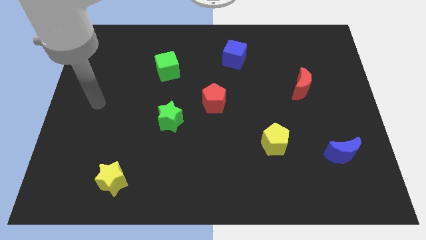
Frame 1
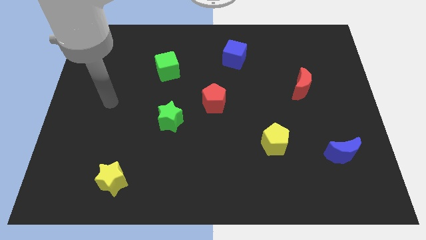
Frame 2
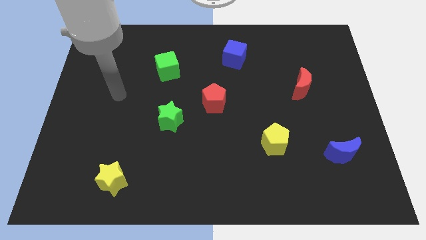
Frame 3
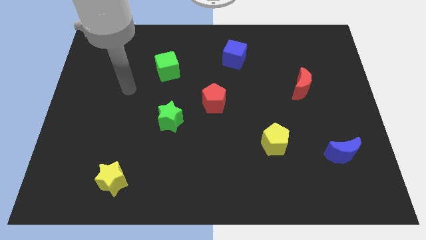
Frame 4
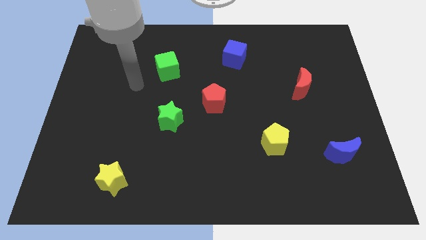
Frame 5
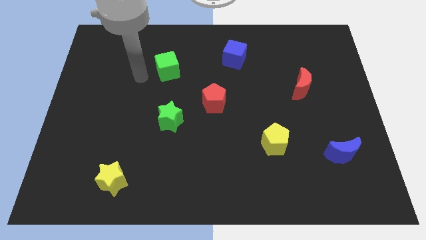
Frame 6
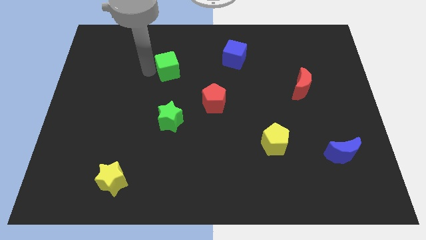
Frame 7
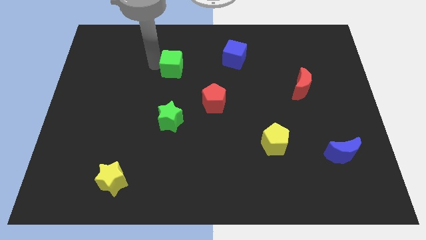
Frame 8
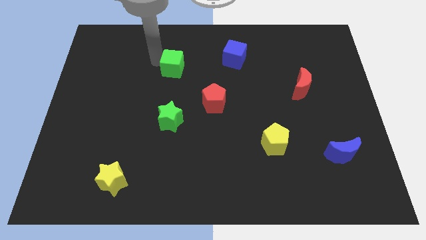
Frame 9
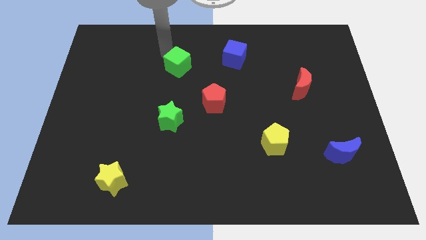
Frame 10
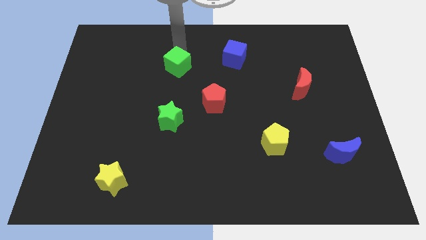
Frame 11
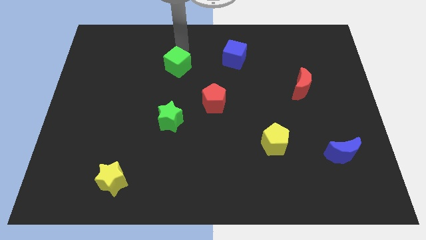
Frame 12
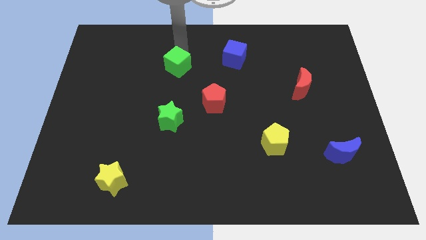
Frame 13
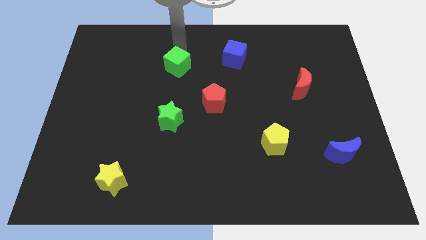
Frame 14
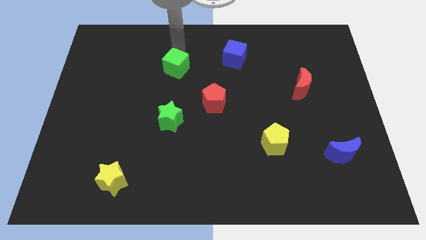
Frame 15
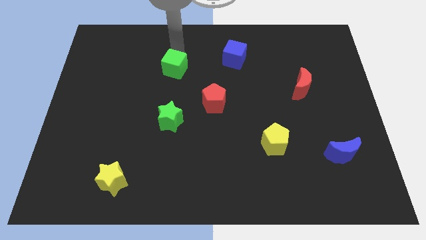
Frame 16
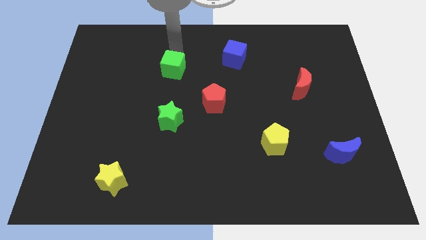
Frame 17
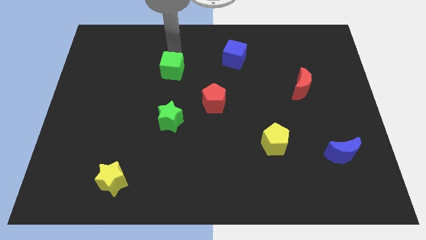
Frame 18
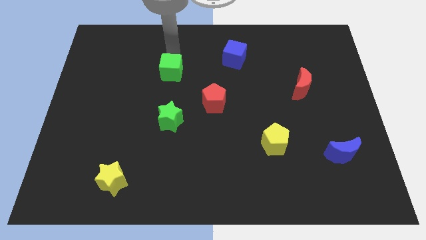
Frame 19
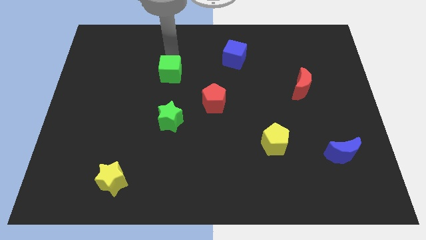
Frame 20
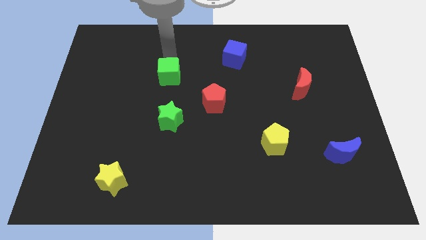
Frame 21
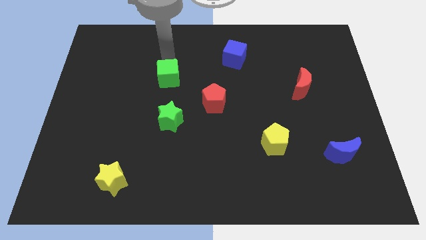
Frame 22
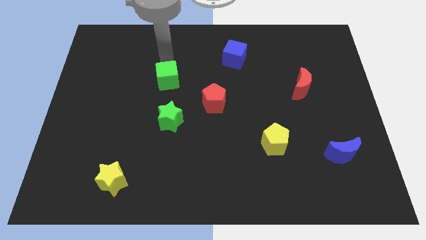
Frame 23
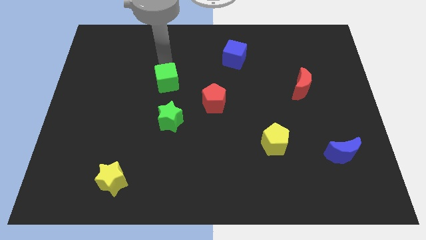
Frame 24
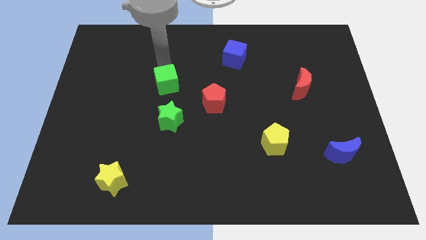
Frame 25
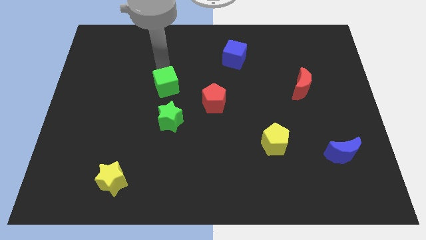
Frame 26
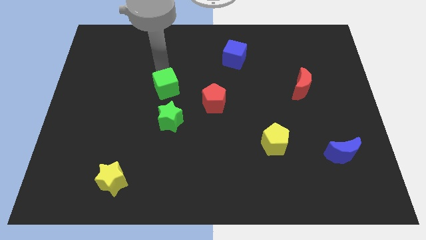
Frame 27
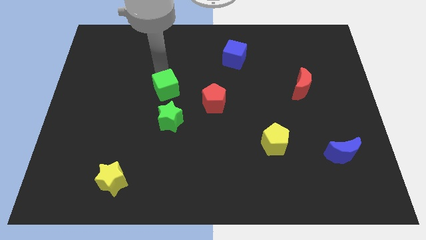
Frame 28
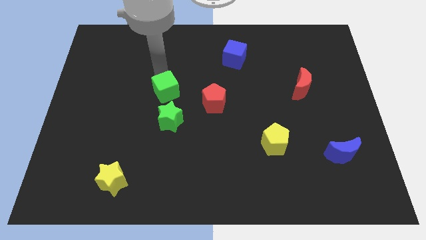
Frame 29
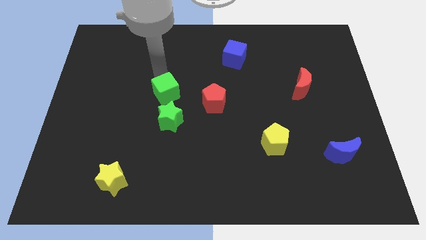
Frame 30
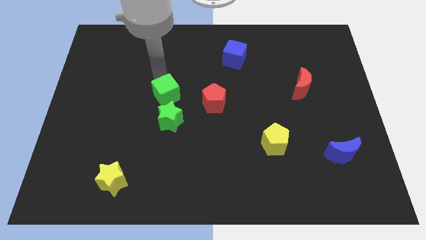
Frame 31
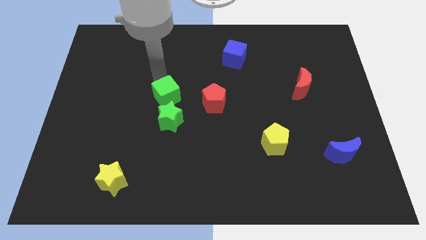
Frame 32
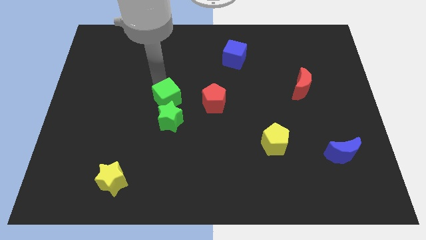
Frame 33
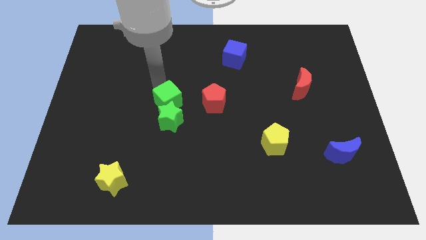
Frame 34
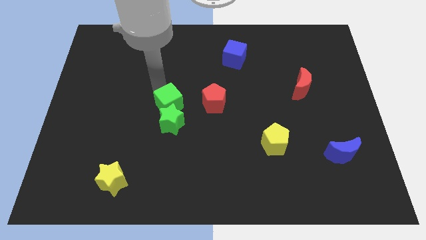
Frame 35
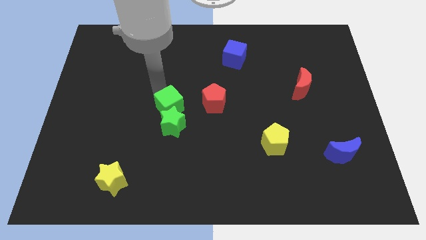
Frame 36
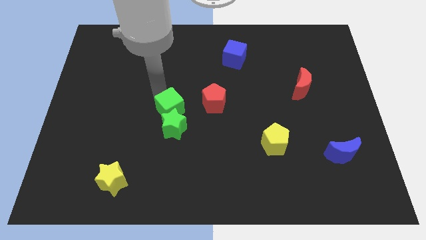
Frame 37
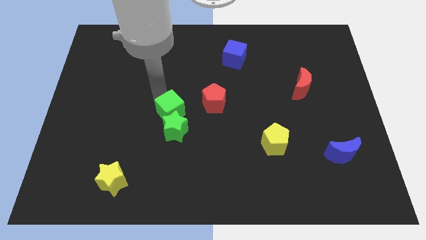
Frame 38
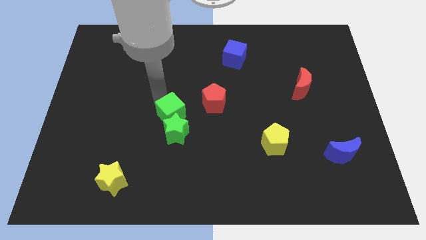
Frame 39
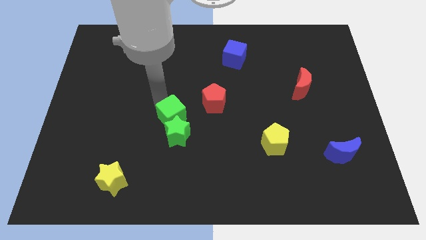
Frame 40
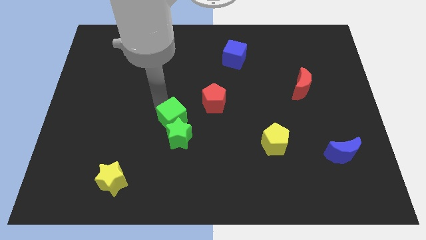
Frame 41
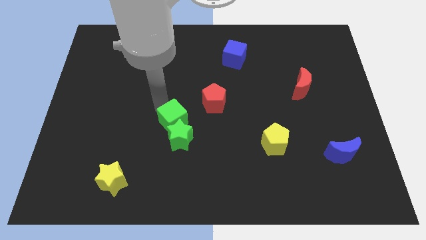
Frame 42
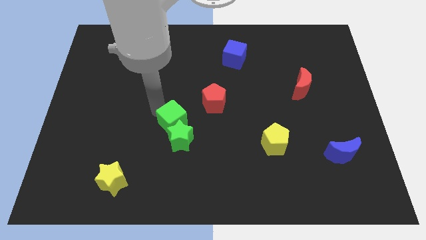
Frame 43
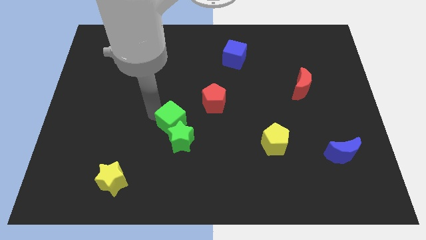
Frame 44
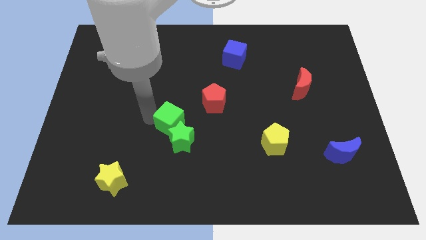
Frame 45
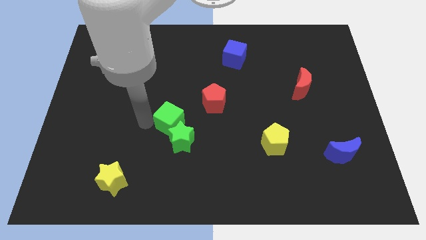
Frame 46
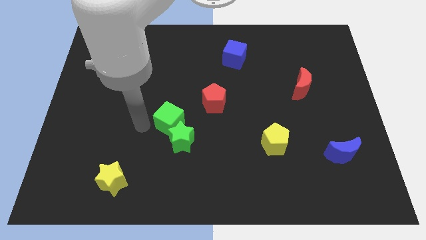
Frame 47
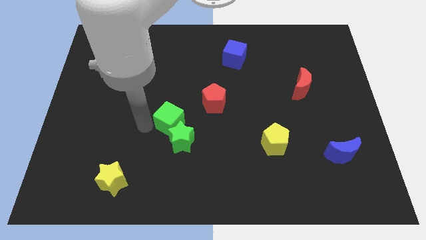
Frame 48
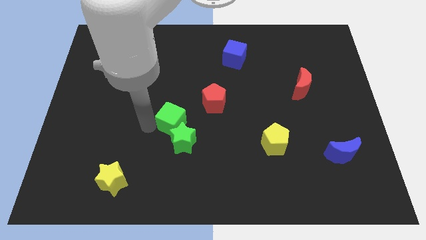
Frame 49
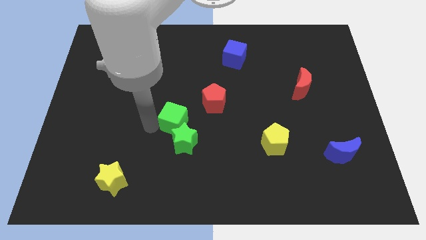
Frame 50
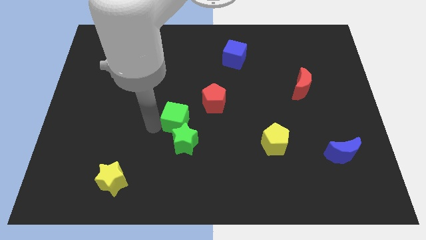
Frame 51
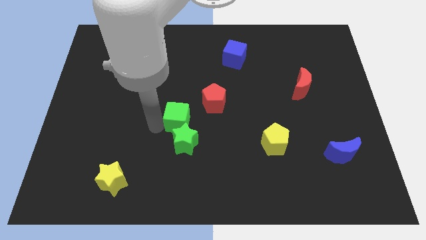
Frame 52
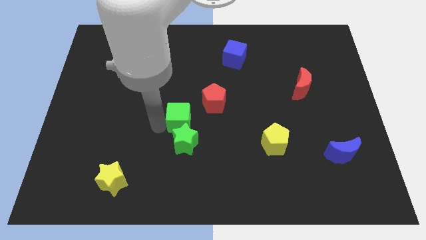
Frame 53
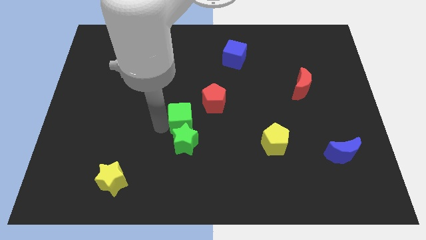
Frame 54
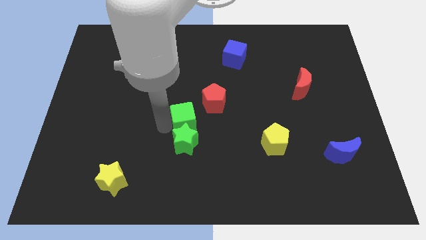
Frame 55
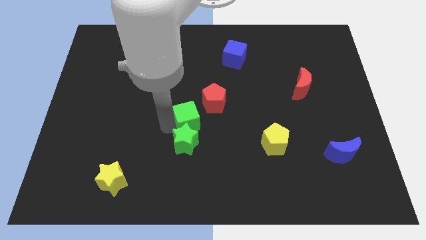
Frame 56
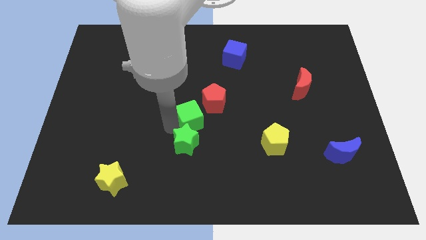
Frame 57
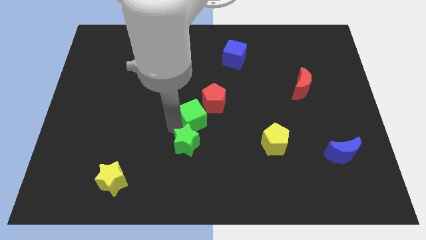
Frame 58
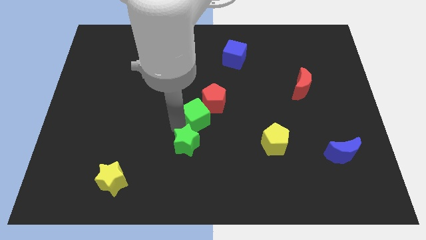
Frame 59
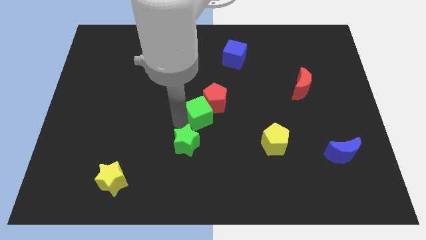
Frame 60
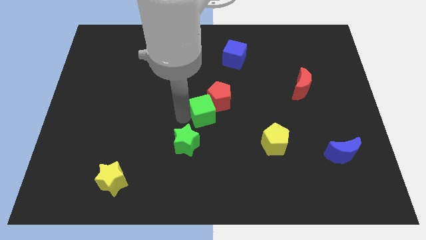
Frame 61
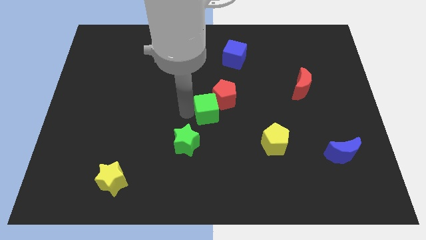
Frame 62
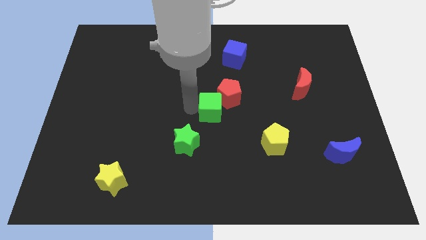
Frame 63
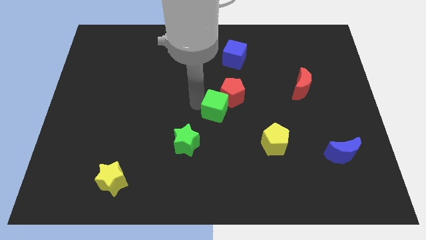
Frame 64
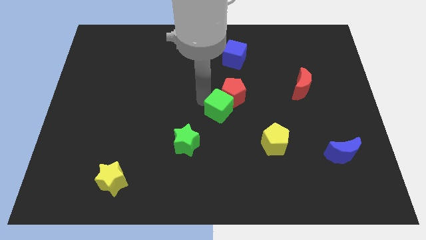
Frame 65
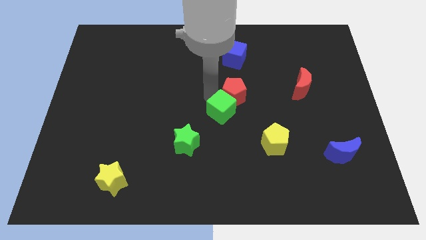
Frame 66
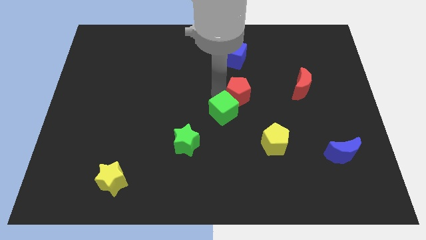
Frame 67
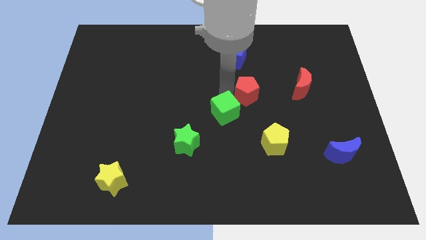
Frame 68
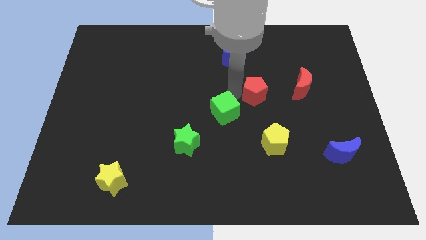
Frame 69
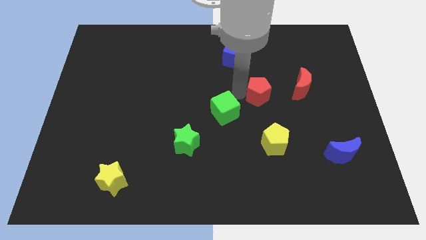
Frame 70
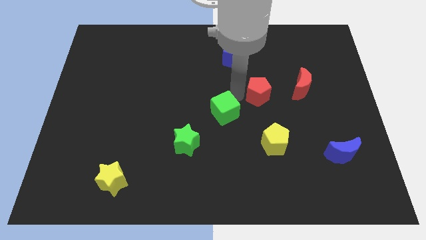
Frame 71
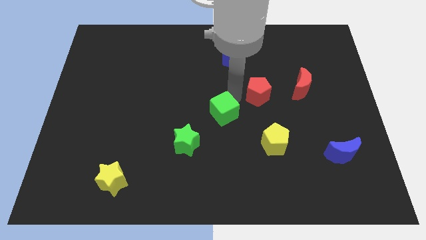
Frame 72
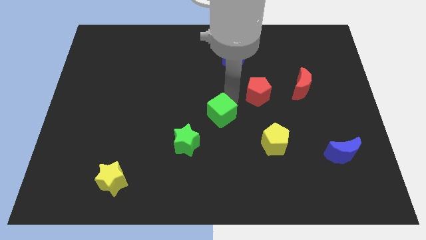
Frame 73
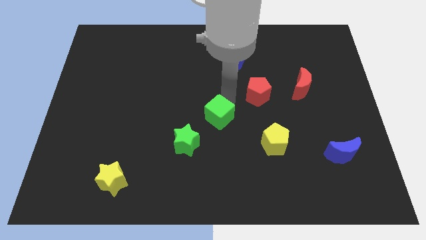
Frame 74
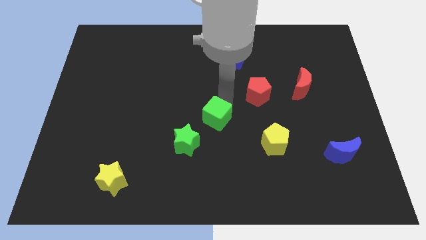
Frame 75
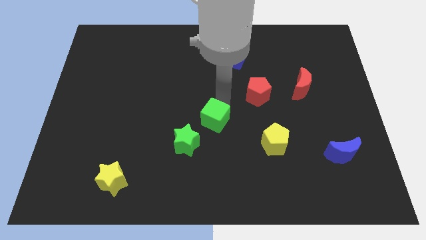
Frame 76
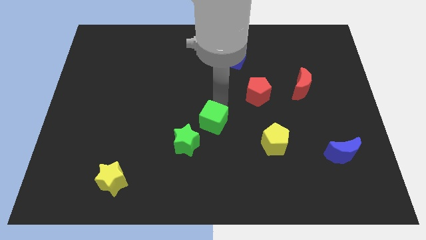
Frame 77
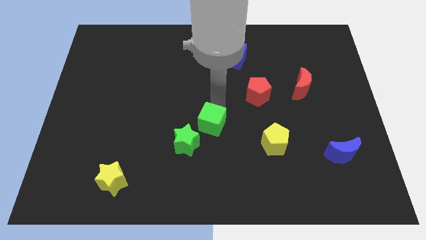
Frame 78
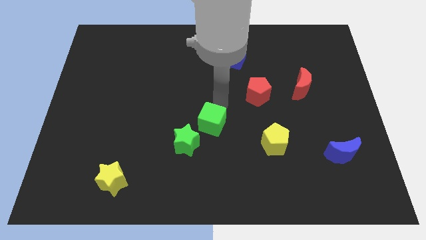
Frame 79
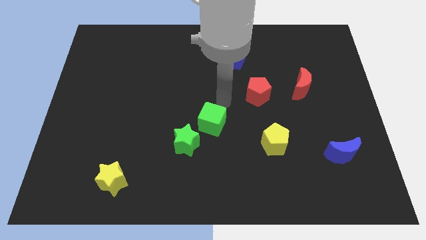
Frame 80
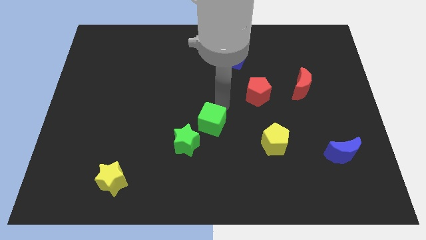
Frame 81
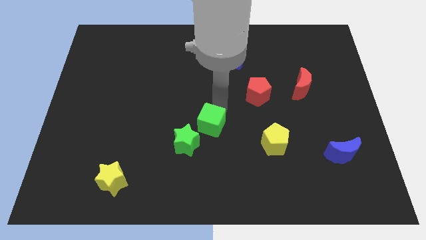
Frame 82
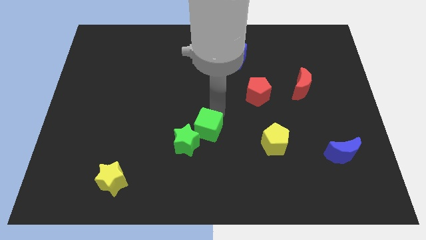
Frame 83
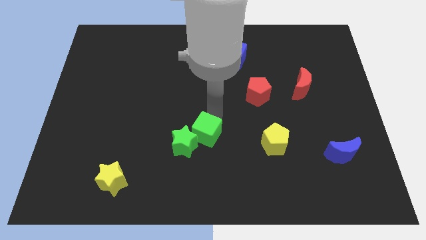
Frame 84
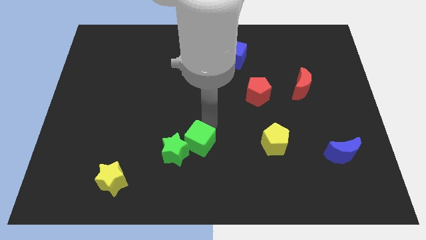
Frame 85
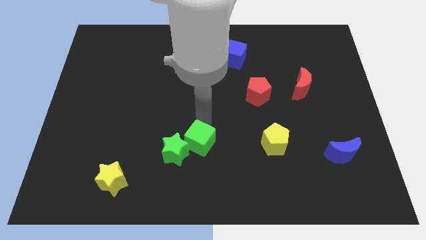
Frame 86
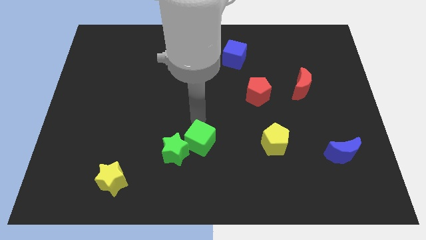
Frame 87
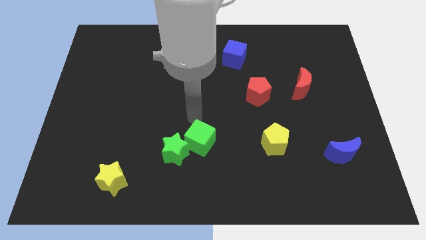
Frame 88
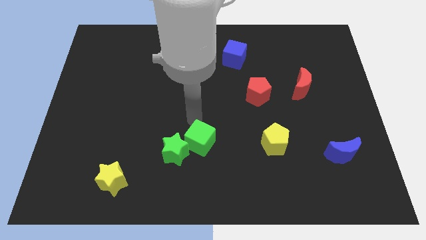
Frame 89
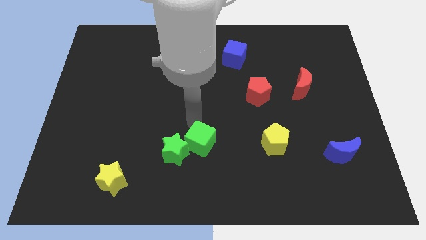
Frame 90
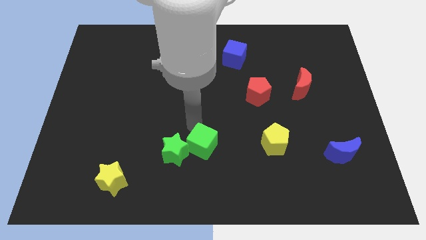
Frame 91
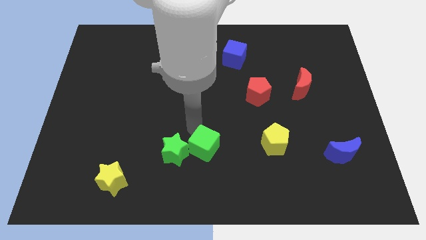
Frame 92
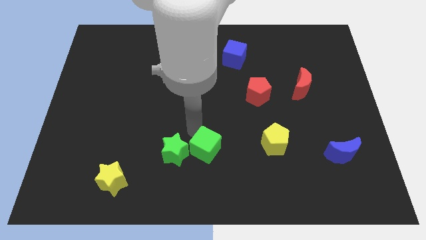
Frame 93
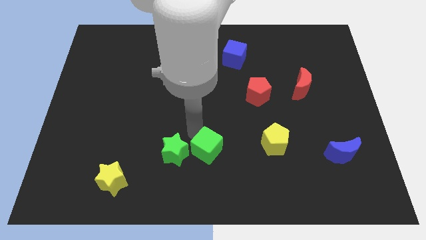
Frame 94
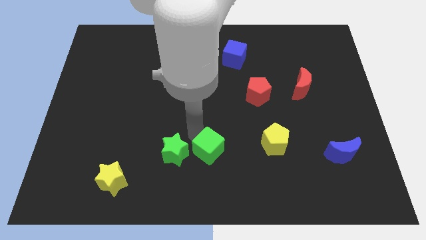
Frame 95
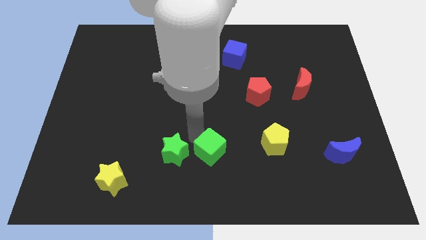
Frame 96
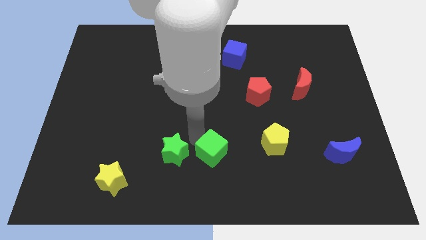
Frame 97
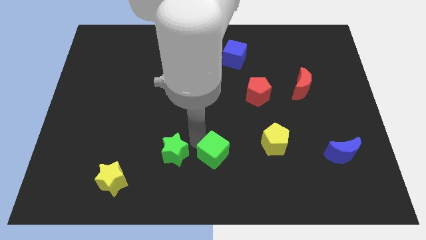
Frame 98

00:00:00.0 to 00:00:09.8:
push the green cube to the bottom
